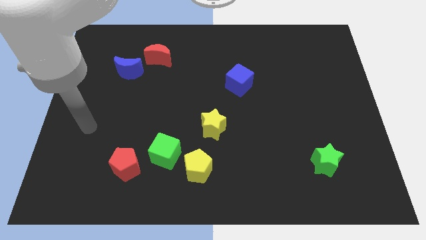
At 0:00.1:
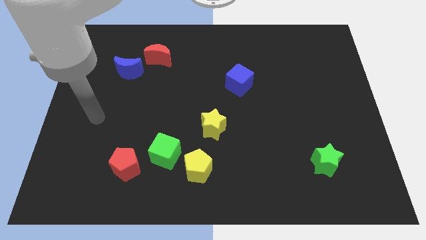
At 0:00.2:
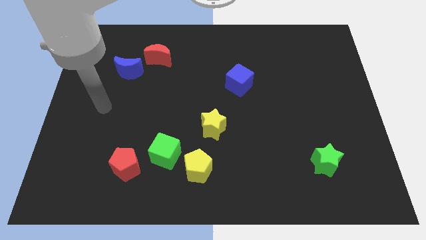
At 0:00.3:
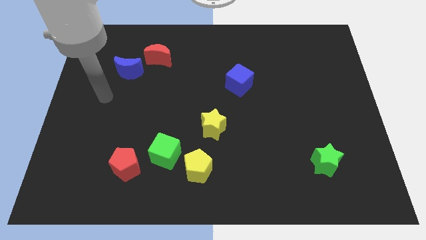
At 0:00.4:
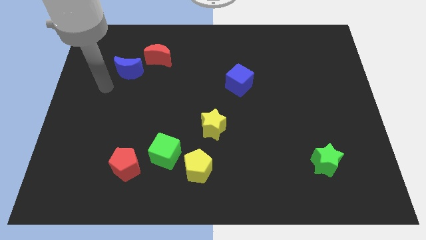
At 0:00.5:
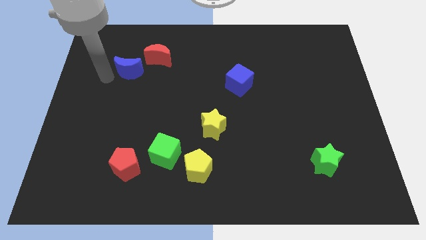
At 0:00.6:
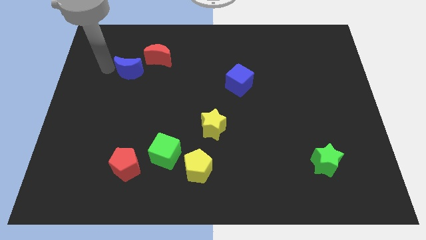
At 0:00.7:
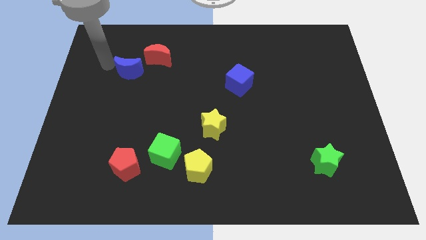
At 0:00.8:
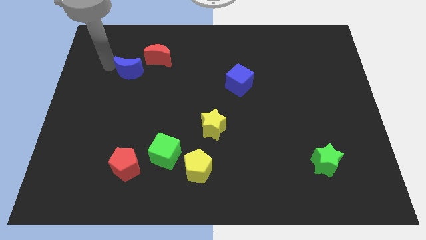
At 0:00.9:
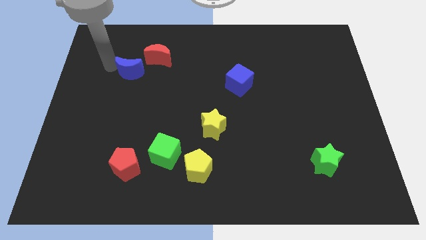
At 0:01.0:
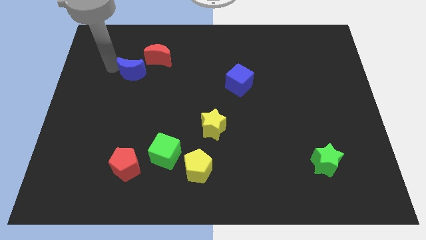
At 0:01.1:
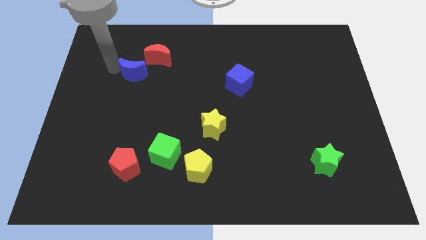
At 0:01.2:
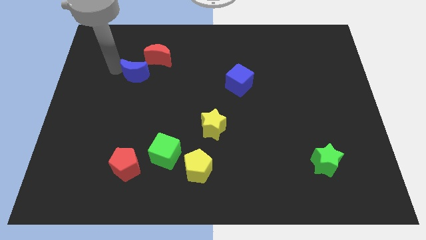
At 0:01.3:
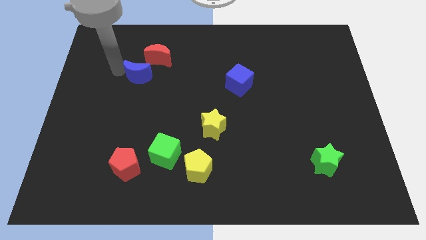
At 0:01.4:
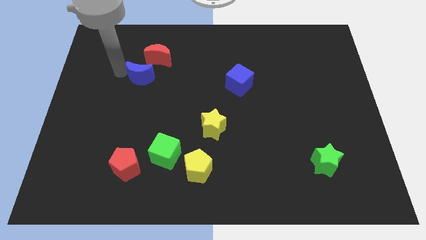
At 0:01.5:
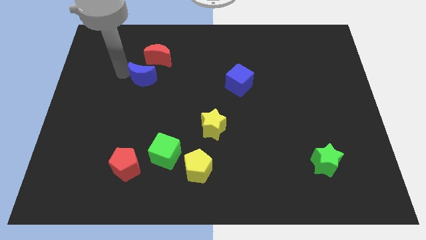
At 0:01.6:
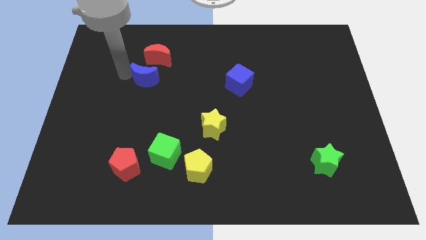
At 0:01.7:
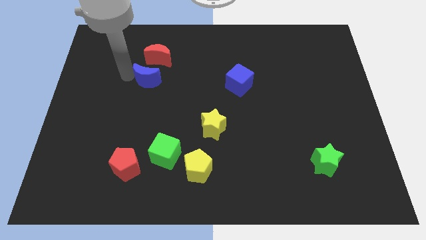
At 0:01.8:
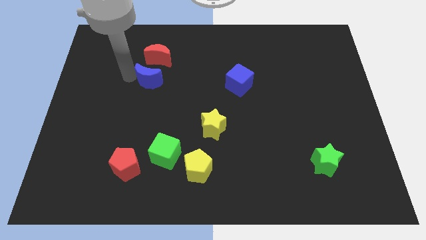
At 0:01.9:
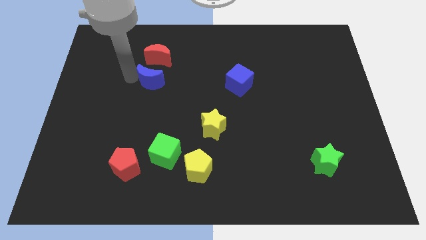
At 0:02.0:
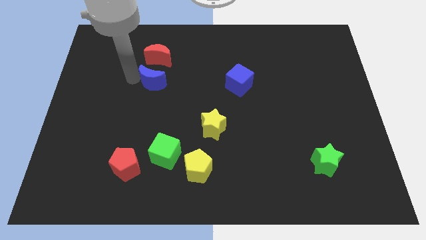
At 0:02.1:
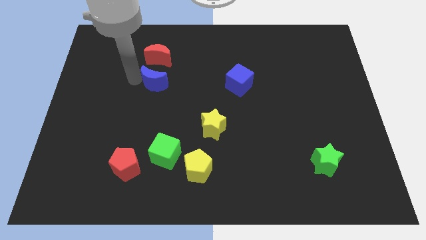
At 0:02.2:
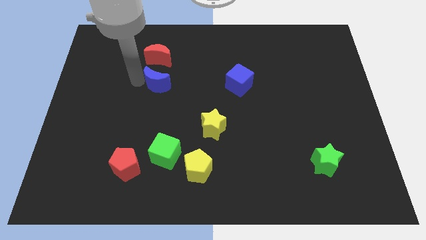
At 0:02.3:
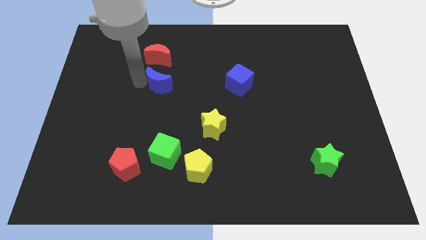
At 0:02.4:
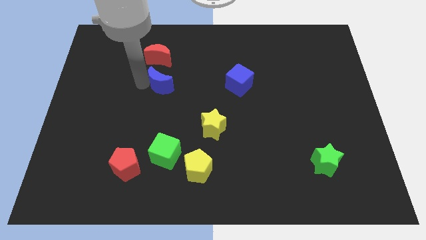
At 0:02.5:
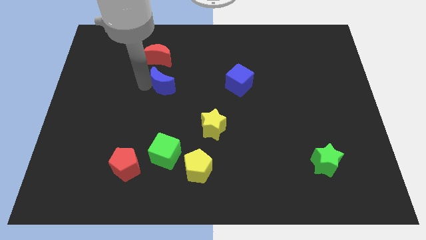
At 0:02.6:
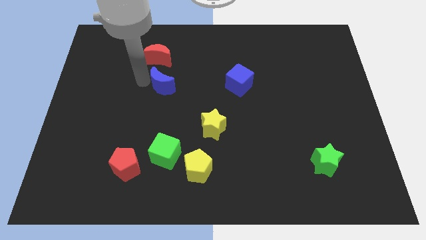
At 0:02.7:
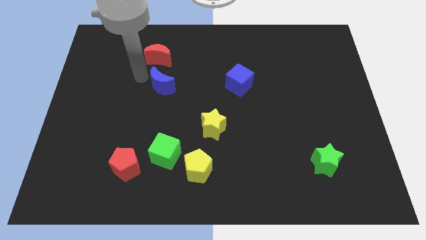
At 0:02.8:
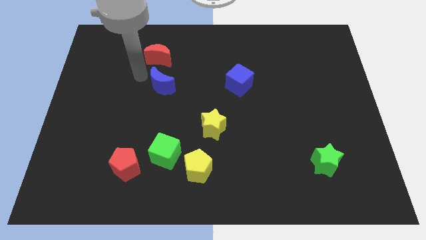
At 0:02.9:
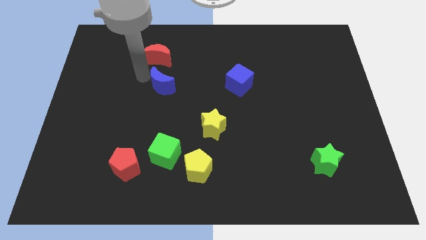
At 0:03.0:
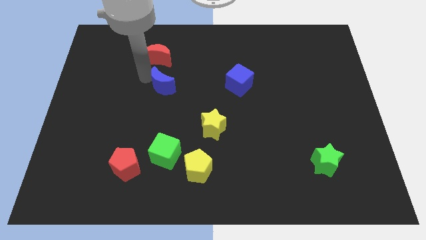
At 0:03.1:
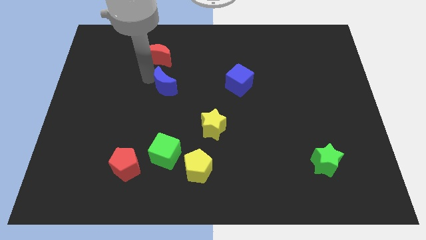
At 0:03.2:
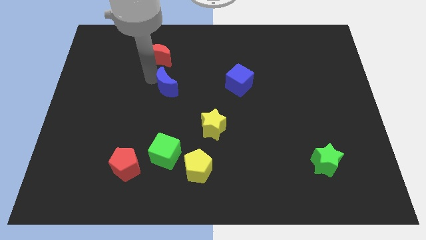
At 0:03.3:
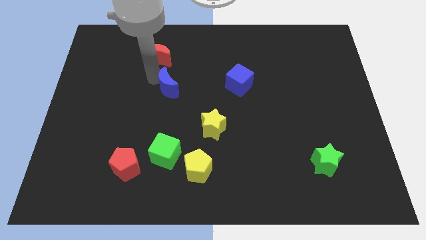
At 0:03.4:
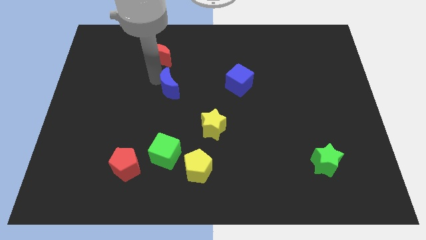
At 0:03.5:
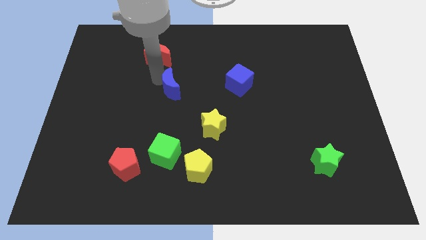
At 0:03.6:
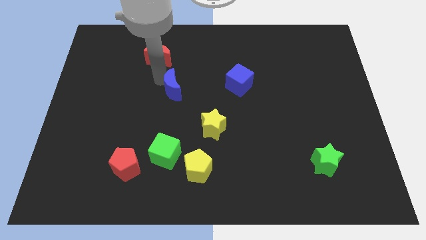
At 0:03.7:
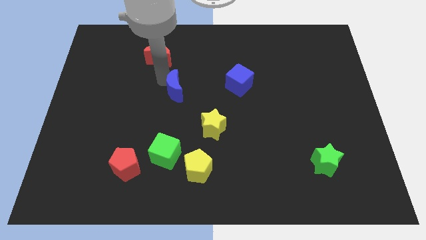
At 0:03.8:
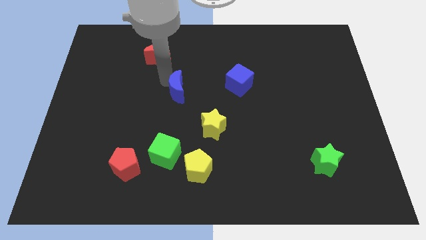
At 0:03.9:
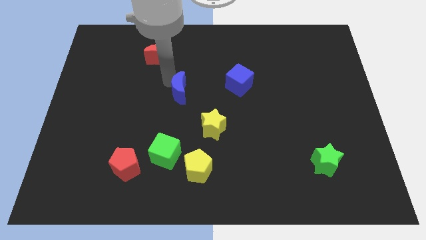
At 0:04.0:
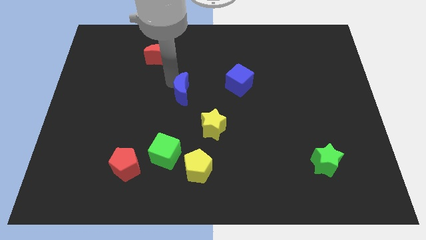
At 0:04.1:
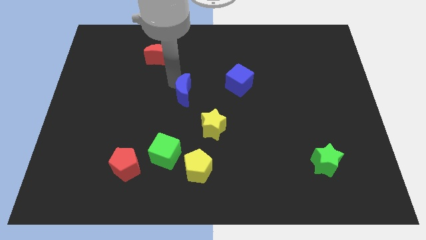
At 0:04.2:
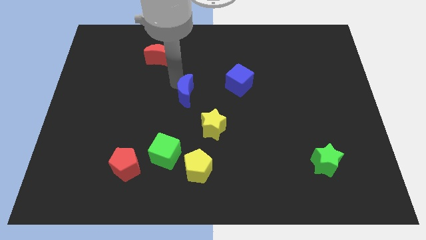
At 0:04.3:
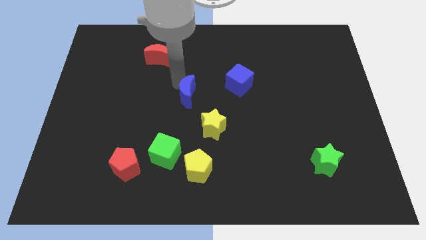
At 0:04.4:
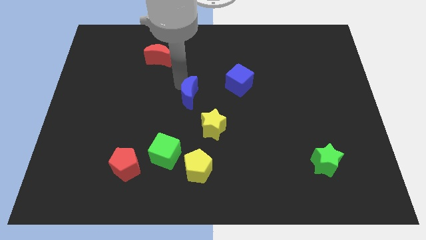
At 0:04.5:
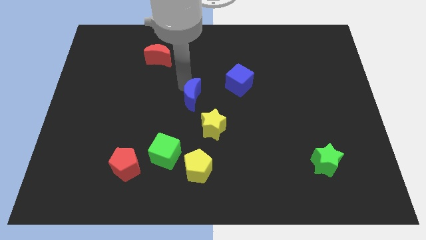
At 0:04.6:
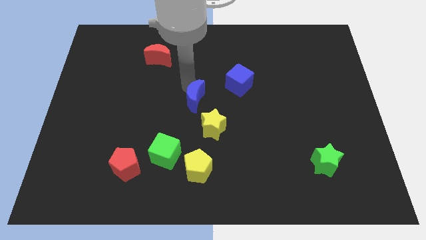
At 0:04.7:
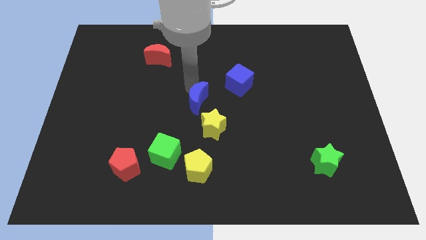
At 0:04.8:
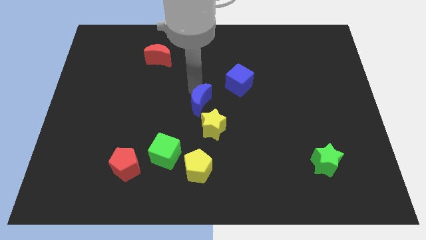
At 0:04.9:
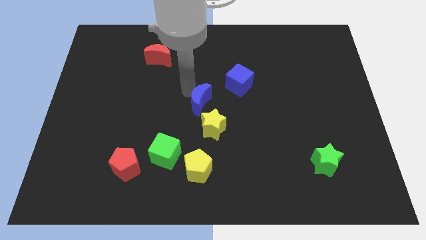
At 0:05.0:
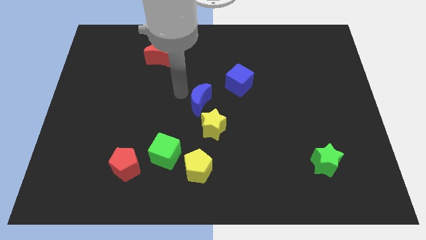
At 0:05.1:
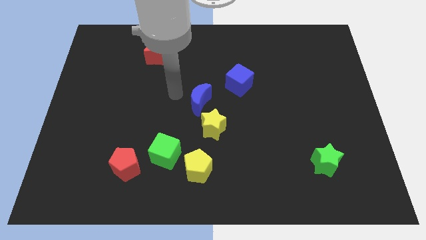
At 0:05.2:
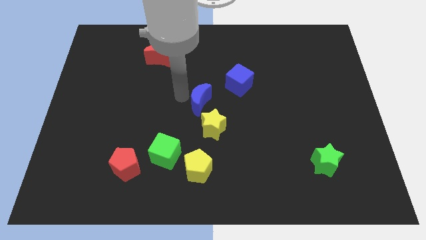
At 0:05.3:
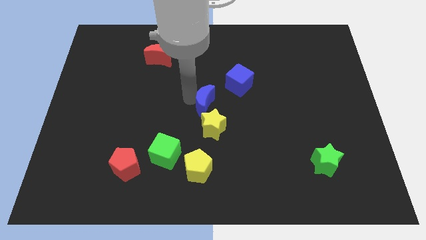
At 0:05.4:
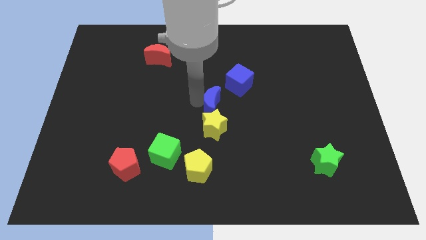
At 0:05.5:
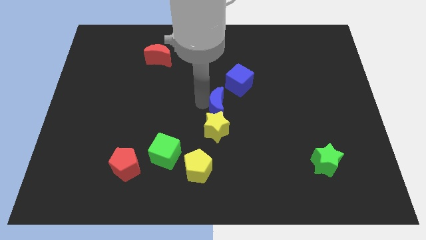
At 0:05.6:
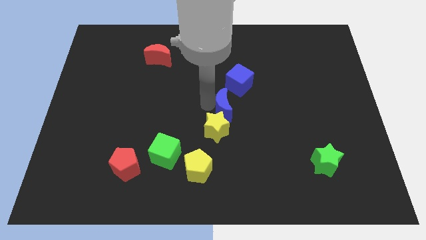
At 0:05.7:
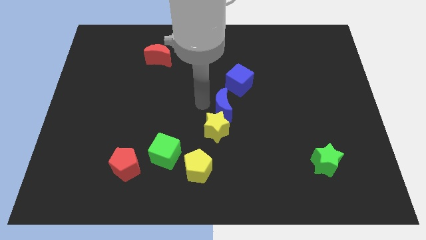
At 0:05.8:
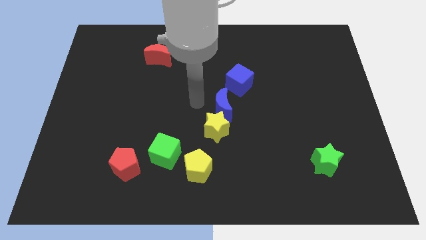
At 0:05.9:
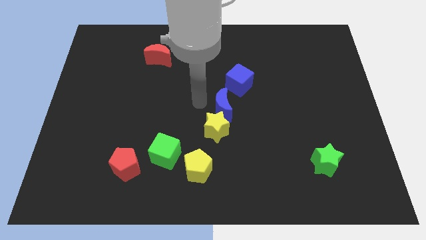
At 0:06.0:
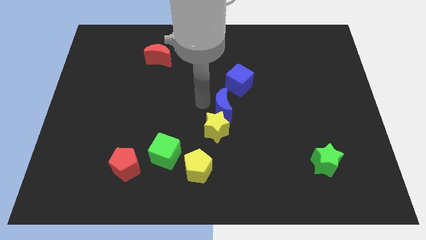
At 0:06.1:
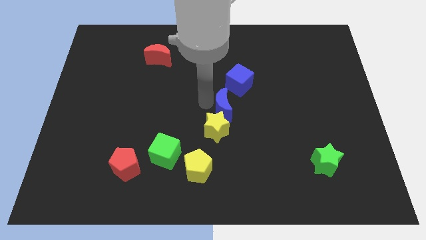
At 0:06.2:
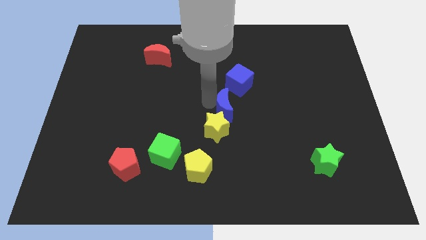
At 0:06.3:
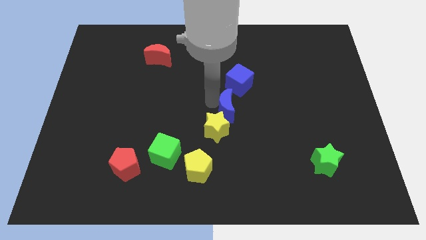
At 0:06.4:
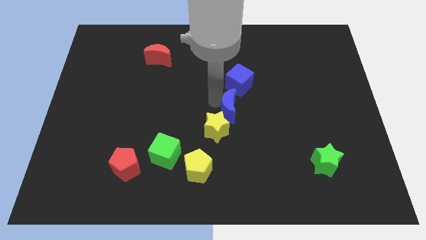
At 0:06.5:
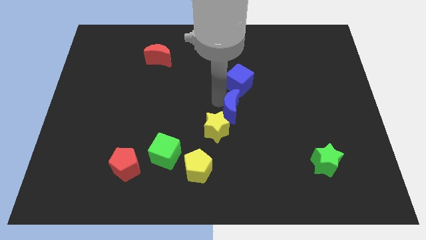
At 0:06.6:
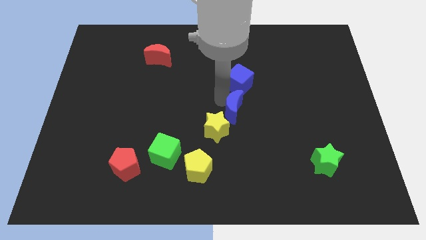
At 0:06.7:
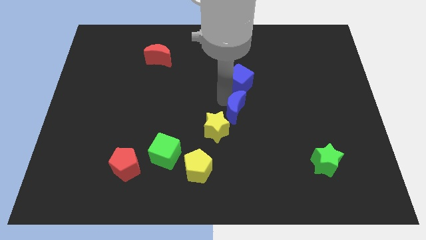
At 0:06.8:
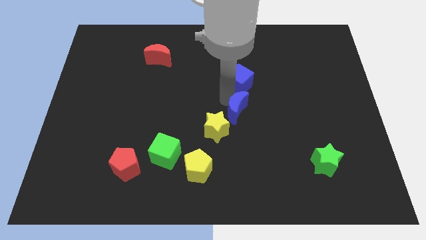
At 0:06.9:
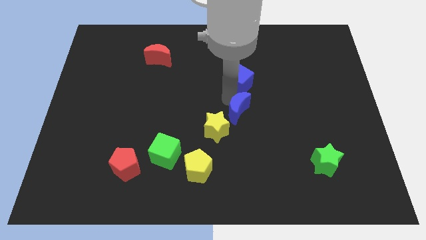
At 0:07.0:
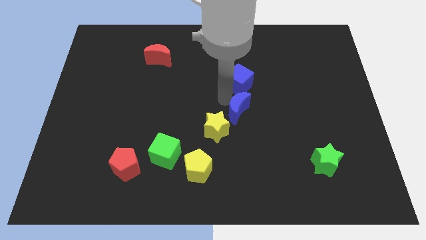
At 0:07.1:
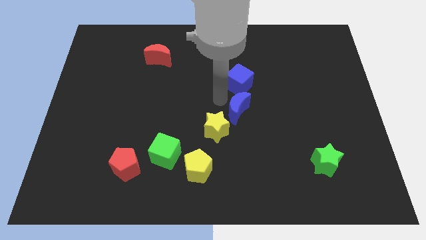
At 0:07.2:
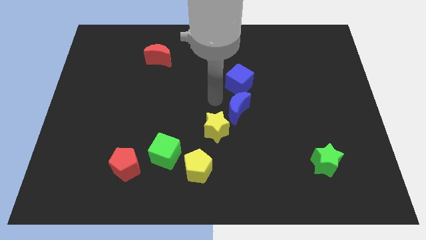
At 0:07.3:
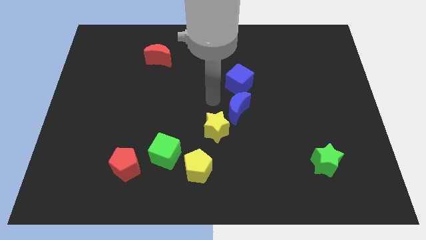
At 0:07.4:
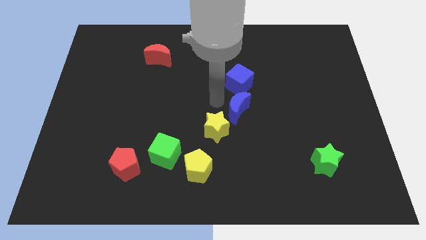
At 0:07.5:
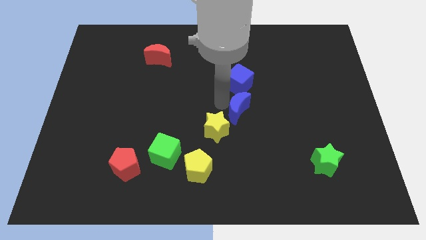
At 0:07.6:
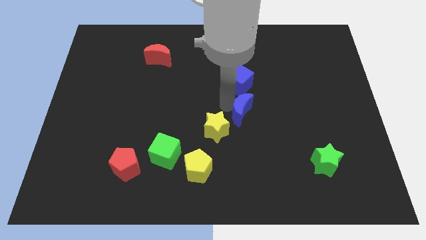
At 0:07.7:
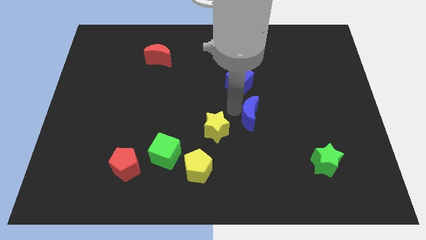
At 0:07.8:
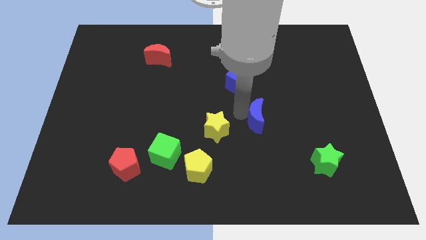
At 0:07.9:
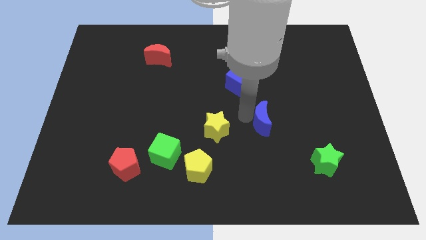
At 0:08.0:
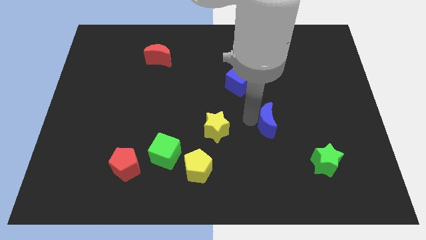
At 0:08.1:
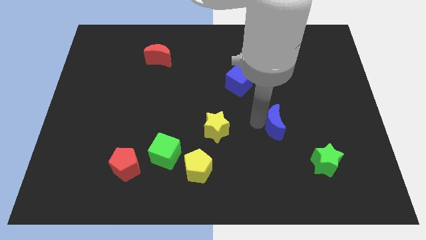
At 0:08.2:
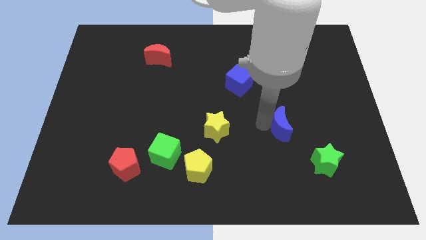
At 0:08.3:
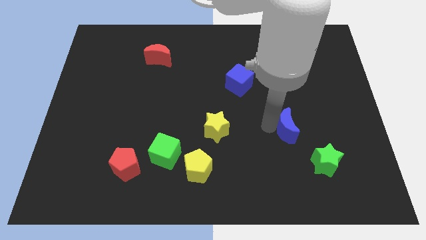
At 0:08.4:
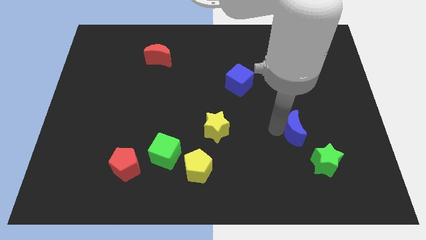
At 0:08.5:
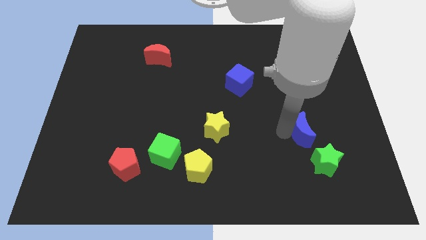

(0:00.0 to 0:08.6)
put the blue moon to the top of the green star
